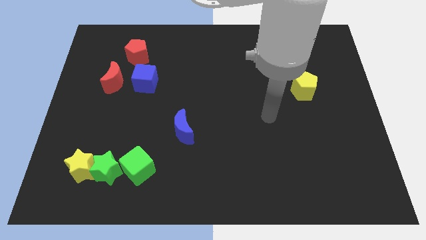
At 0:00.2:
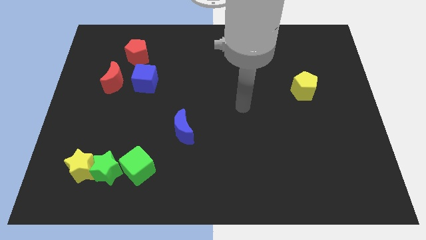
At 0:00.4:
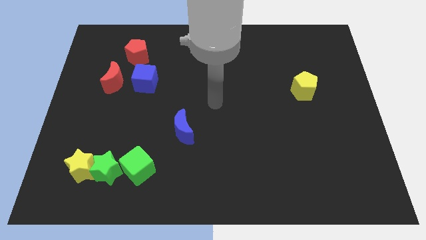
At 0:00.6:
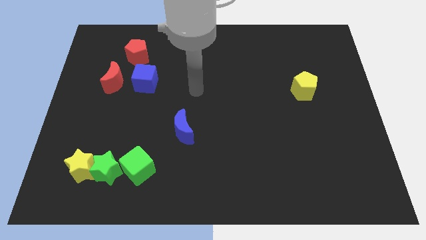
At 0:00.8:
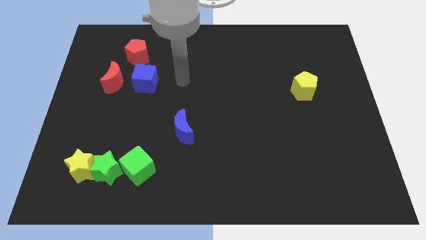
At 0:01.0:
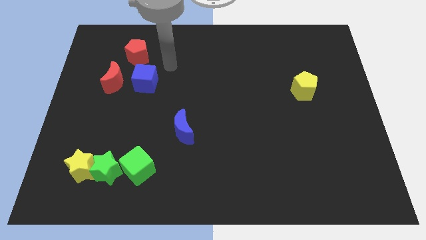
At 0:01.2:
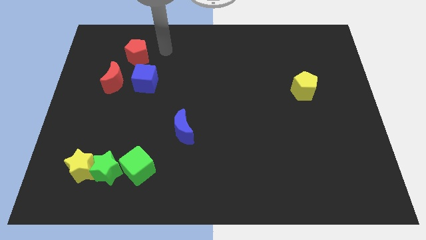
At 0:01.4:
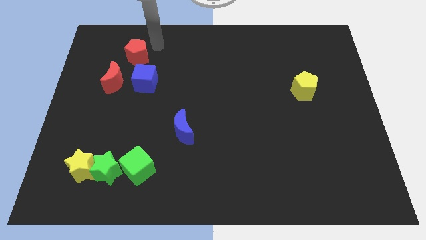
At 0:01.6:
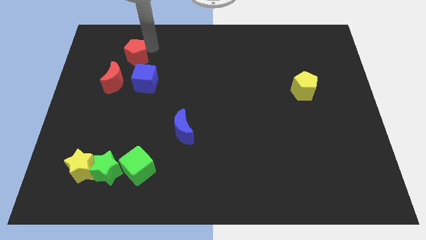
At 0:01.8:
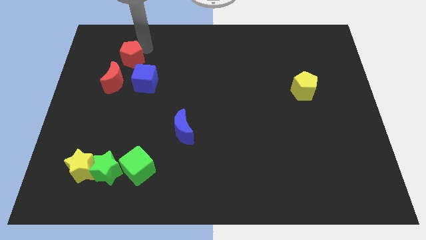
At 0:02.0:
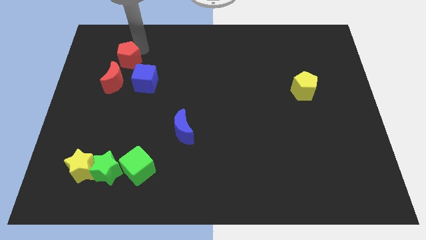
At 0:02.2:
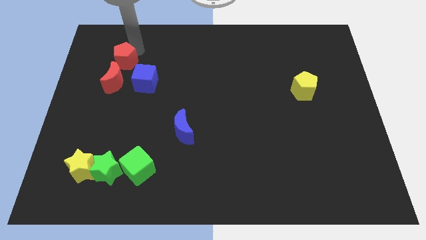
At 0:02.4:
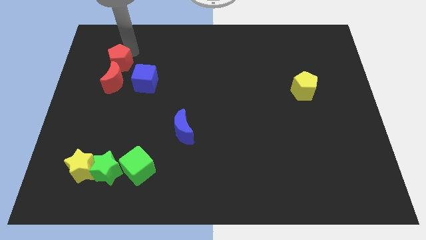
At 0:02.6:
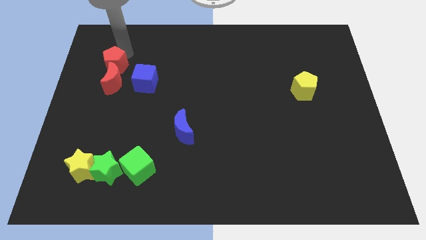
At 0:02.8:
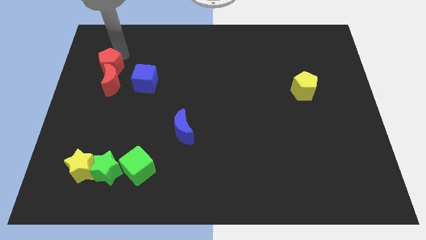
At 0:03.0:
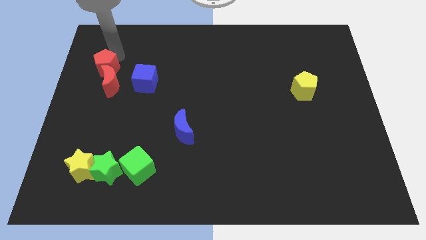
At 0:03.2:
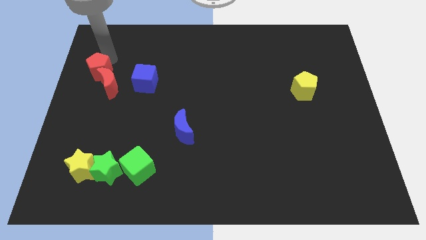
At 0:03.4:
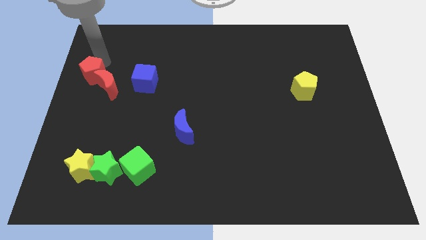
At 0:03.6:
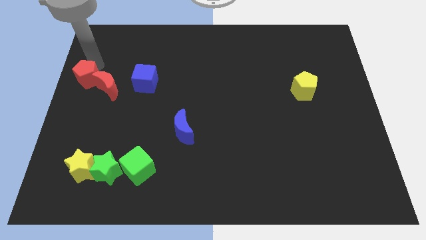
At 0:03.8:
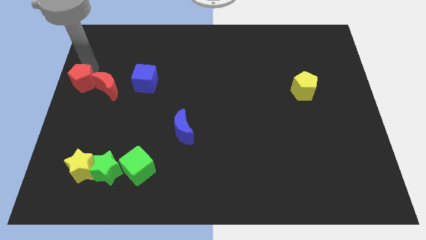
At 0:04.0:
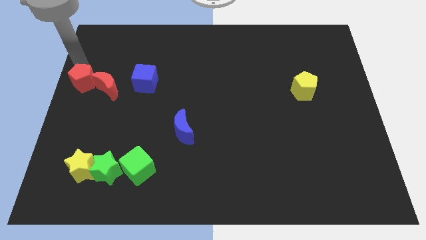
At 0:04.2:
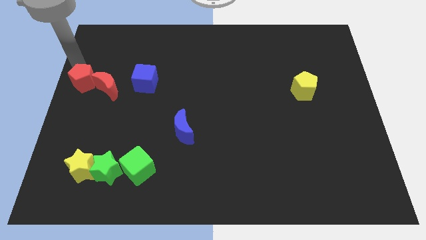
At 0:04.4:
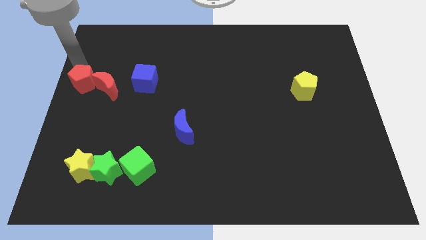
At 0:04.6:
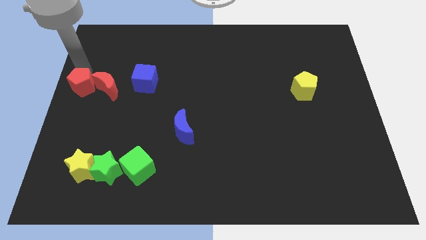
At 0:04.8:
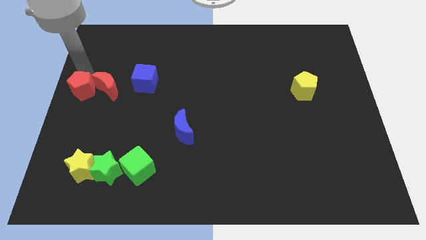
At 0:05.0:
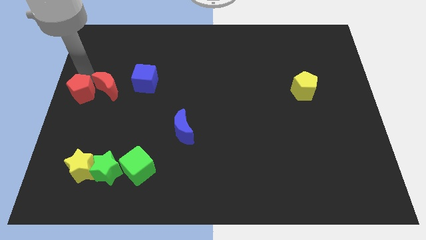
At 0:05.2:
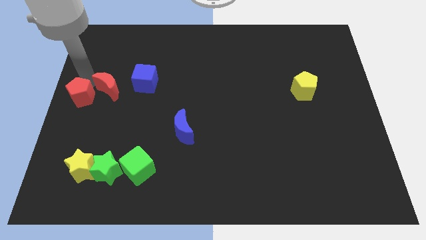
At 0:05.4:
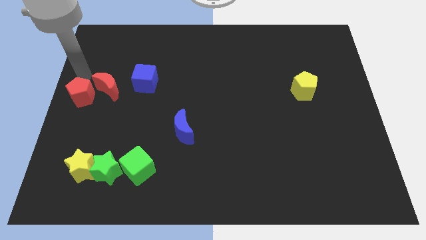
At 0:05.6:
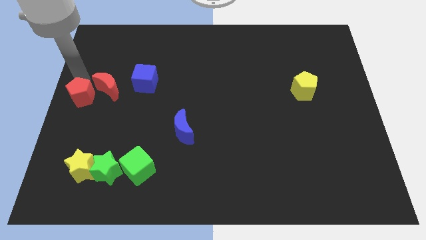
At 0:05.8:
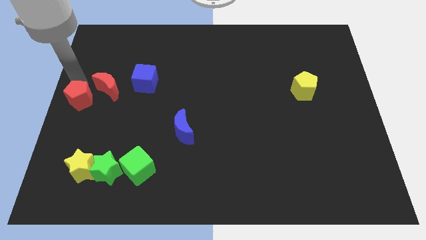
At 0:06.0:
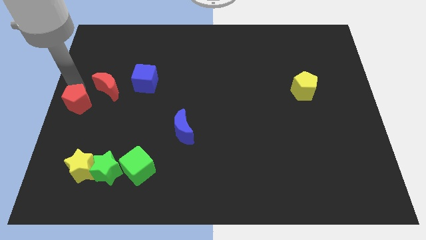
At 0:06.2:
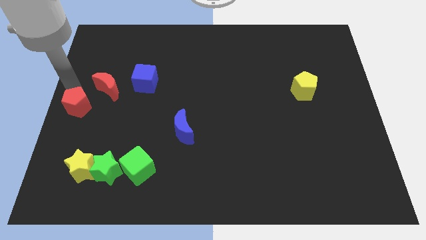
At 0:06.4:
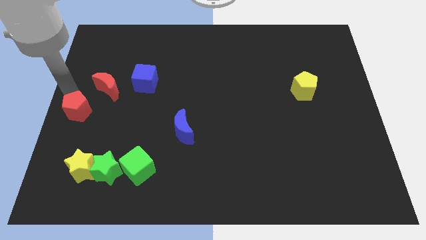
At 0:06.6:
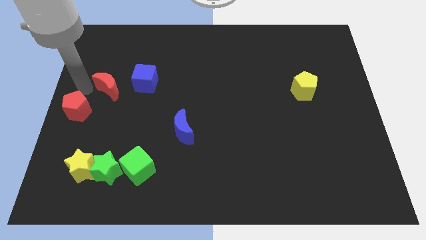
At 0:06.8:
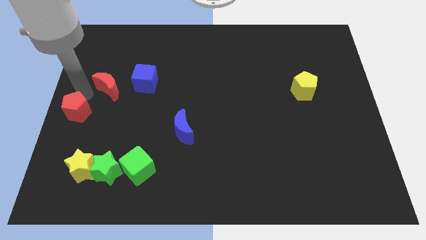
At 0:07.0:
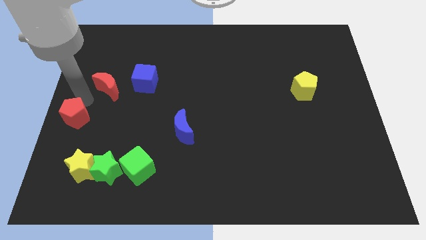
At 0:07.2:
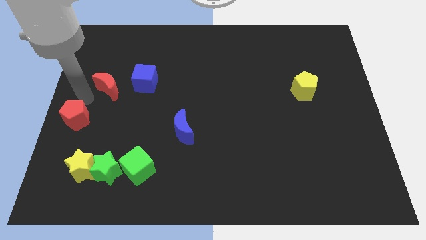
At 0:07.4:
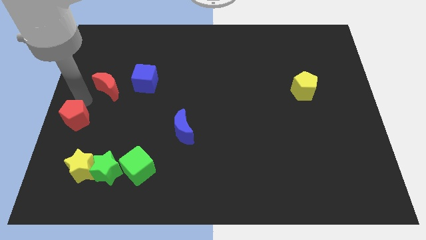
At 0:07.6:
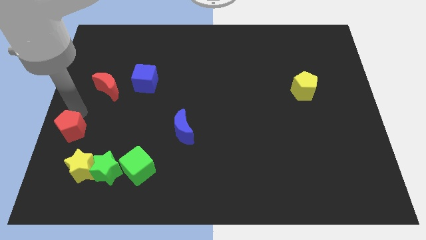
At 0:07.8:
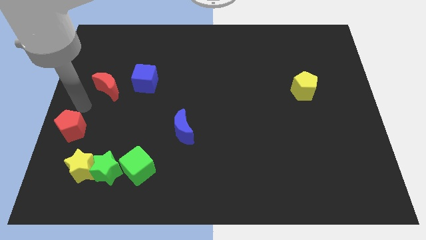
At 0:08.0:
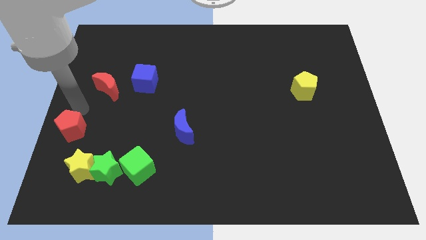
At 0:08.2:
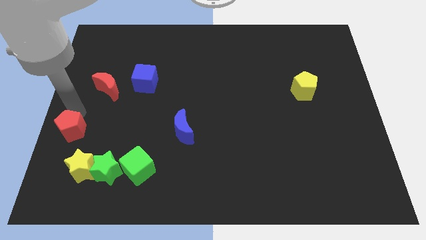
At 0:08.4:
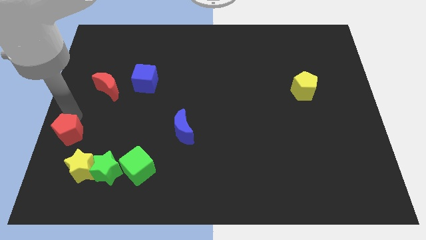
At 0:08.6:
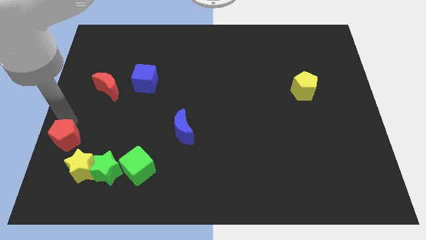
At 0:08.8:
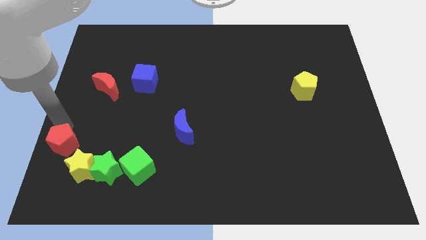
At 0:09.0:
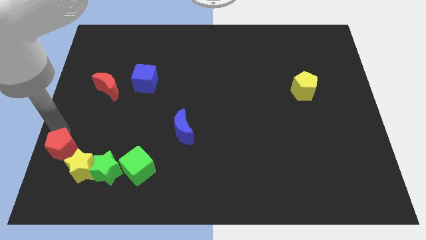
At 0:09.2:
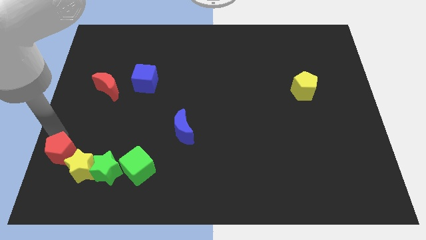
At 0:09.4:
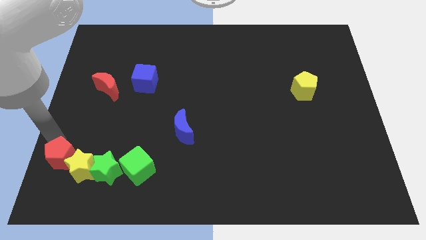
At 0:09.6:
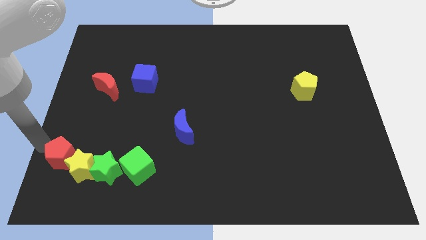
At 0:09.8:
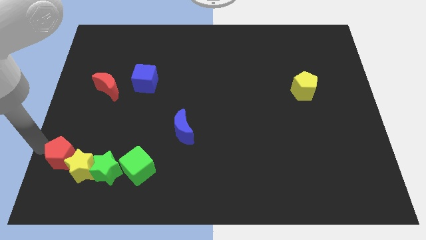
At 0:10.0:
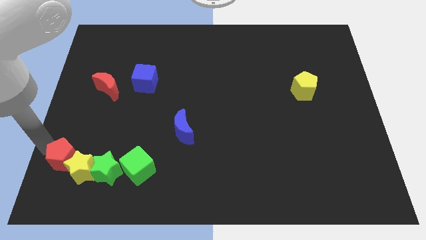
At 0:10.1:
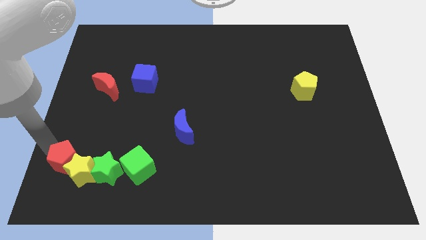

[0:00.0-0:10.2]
move the red pentagon to the left of the green cube
